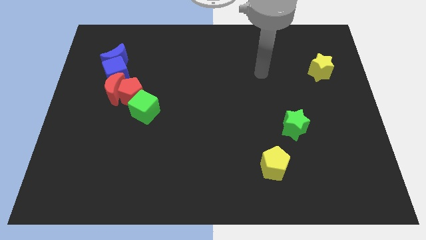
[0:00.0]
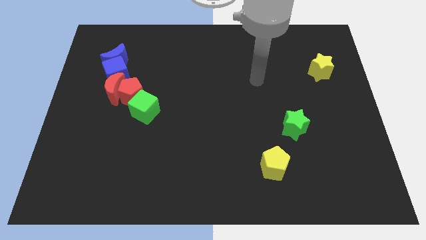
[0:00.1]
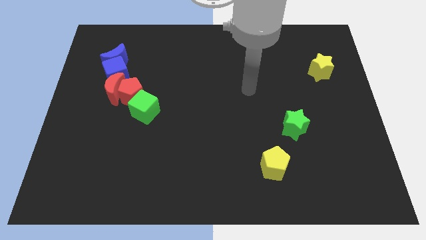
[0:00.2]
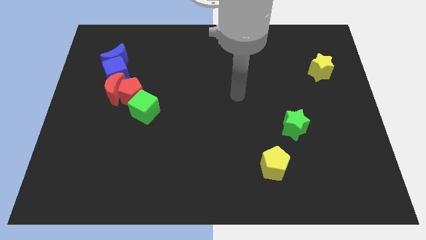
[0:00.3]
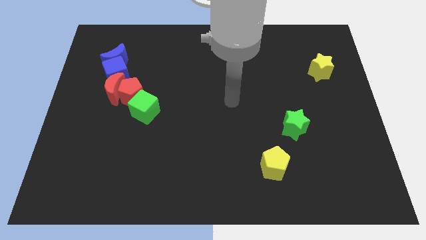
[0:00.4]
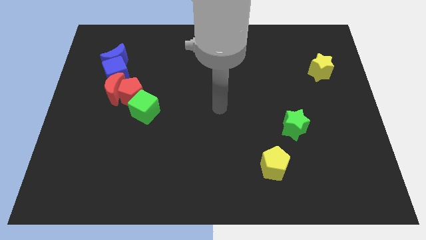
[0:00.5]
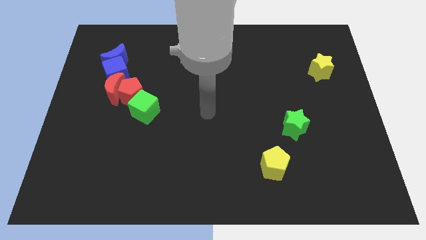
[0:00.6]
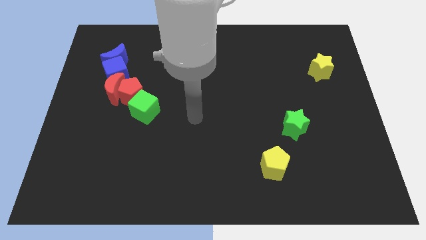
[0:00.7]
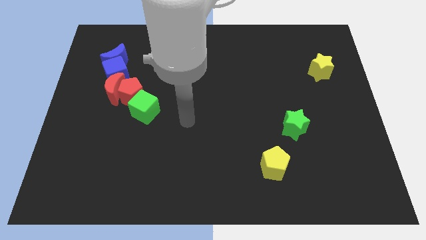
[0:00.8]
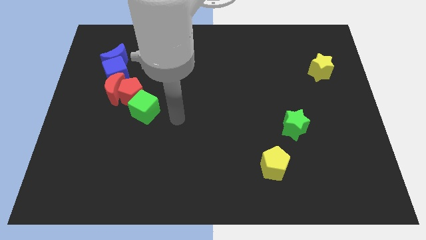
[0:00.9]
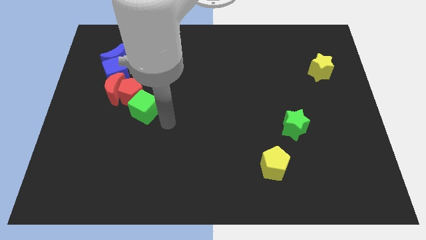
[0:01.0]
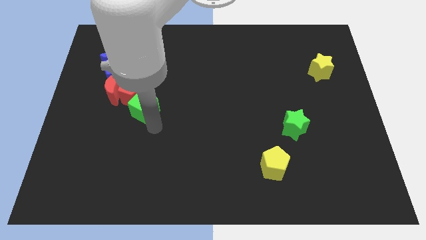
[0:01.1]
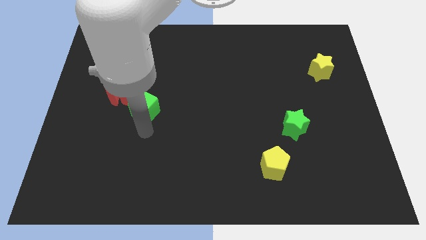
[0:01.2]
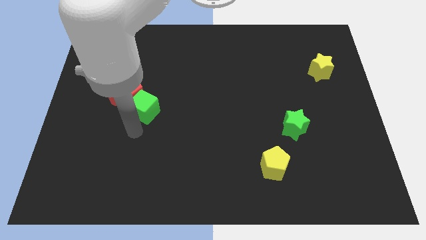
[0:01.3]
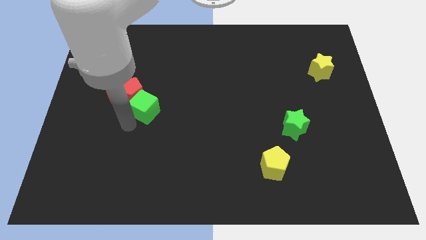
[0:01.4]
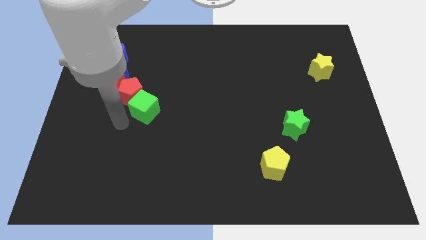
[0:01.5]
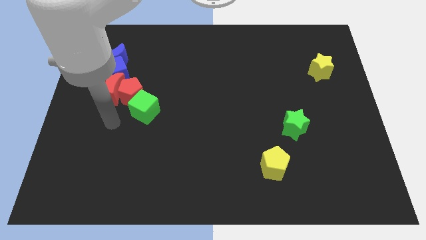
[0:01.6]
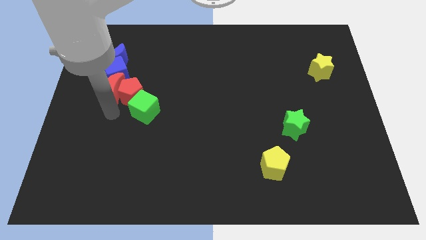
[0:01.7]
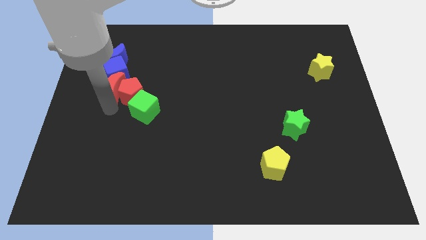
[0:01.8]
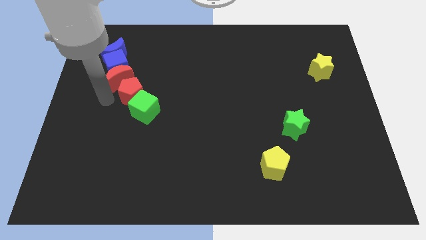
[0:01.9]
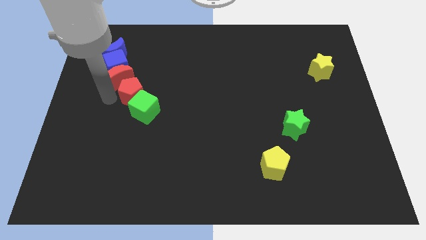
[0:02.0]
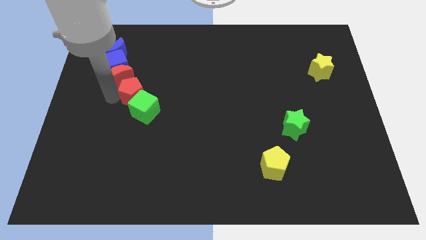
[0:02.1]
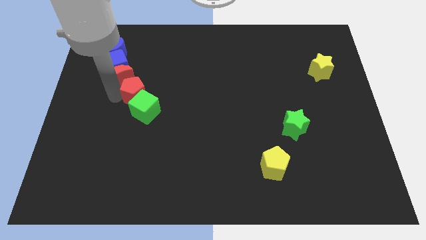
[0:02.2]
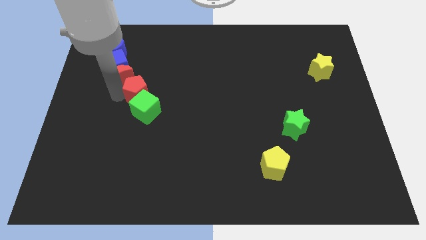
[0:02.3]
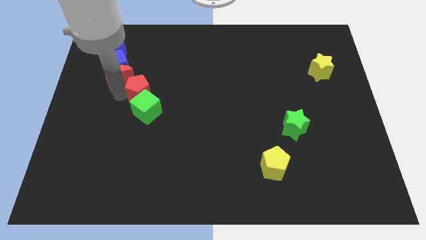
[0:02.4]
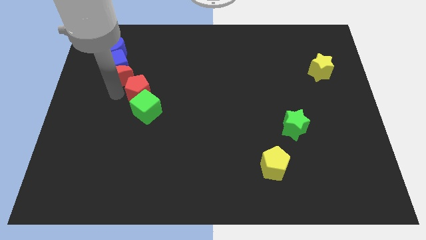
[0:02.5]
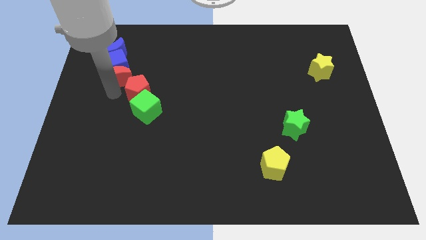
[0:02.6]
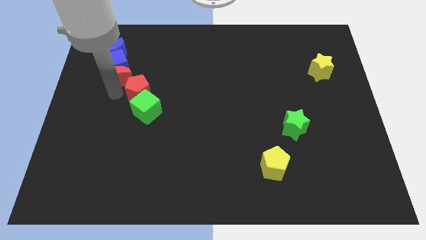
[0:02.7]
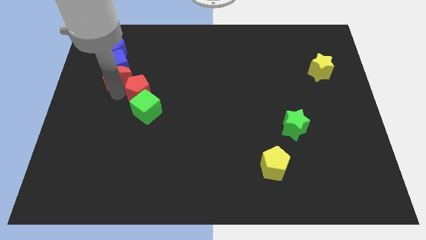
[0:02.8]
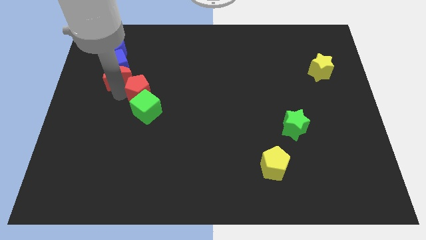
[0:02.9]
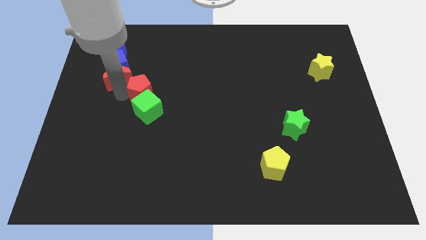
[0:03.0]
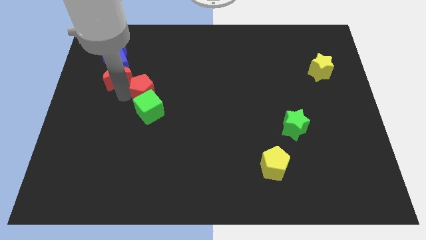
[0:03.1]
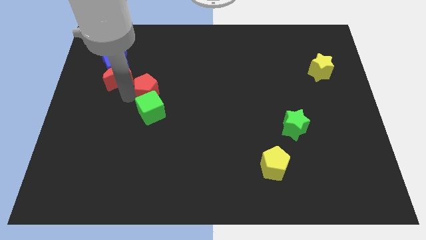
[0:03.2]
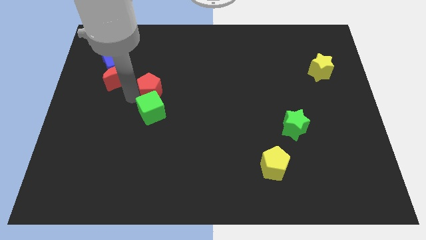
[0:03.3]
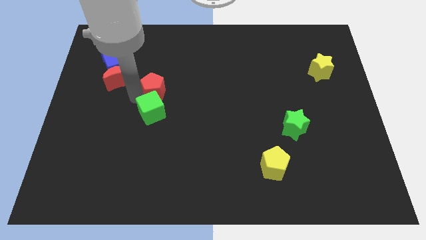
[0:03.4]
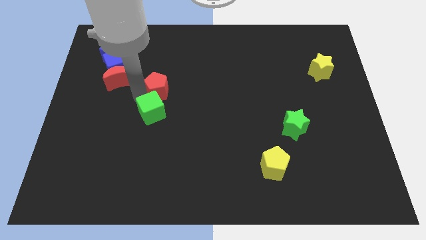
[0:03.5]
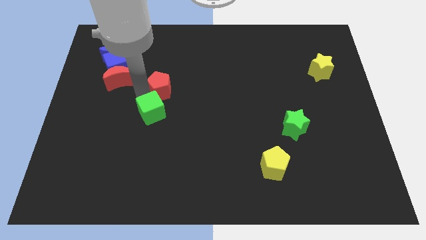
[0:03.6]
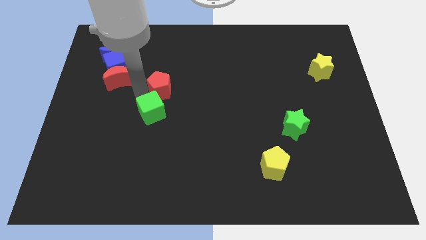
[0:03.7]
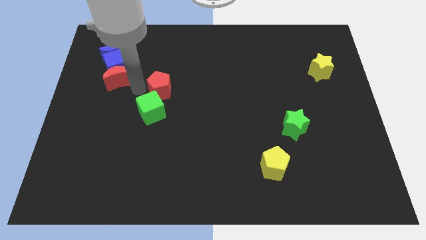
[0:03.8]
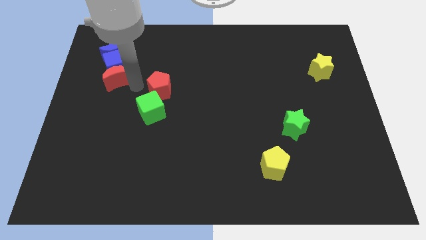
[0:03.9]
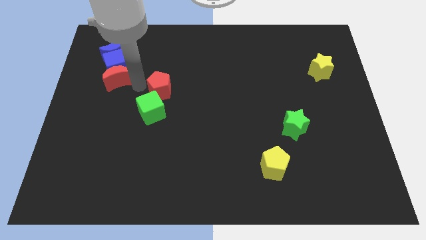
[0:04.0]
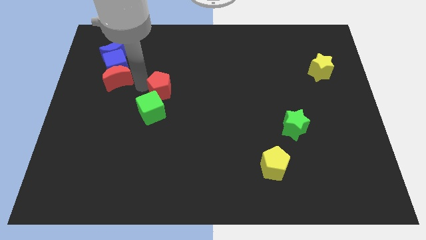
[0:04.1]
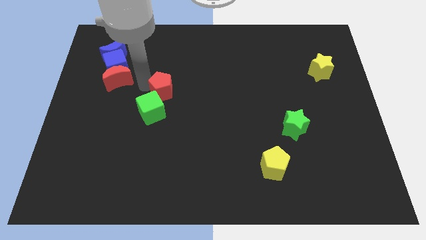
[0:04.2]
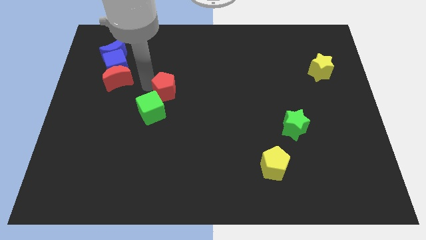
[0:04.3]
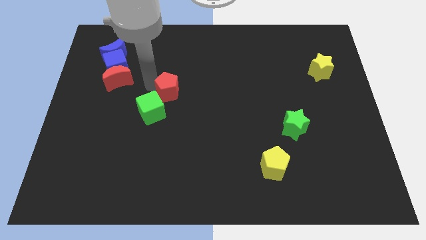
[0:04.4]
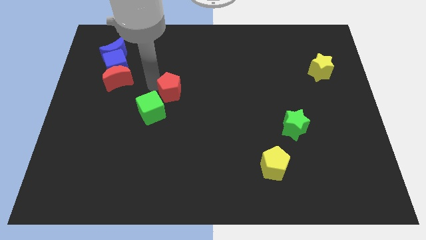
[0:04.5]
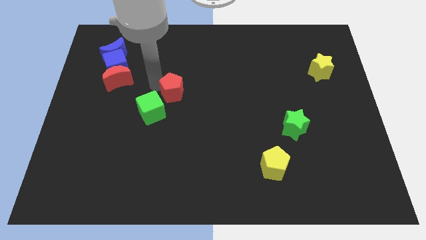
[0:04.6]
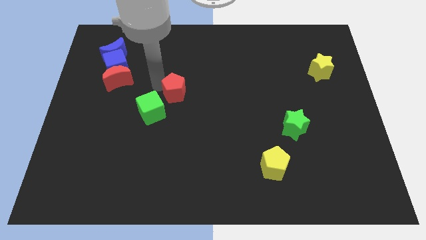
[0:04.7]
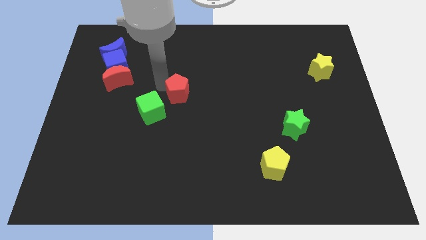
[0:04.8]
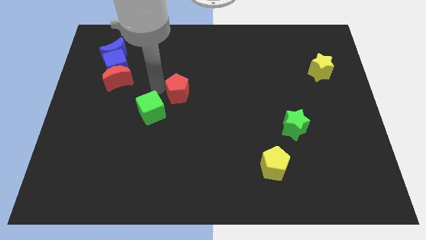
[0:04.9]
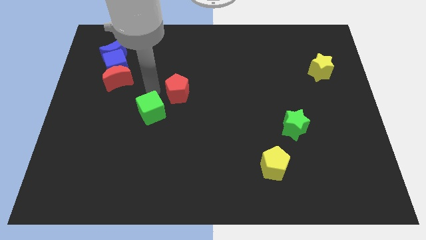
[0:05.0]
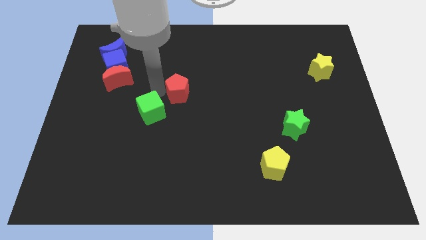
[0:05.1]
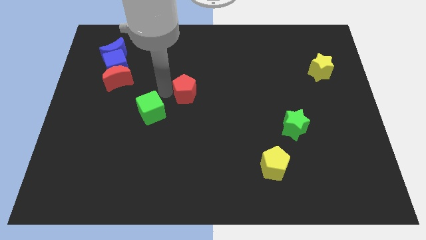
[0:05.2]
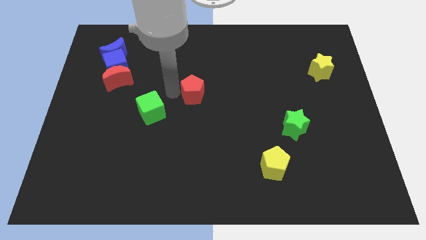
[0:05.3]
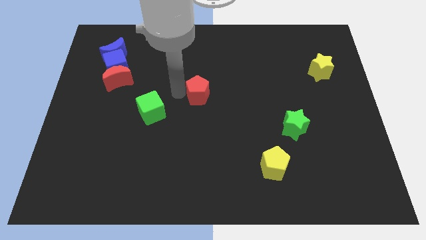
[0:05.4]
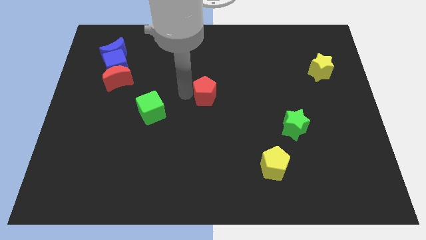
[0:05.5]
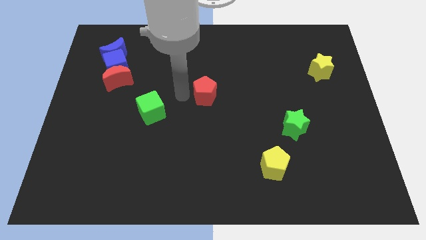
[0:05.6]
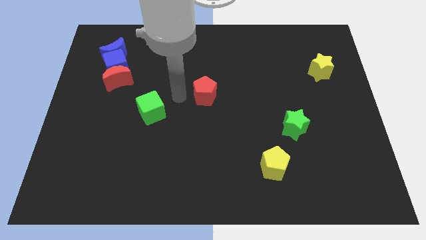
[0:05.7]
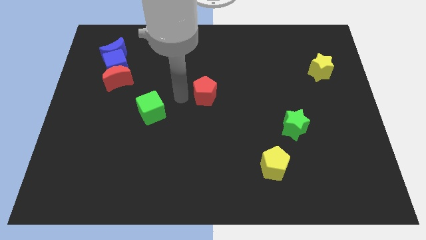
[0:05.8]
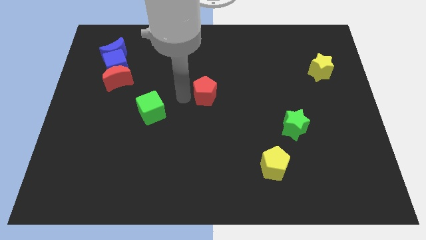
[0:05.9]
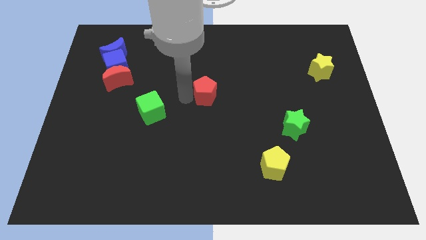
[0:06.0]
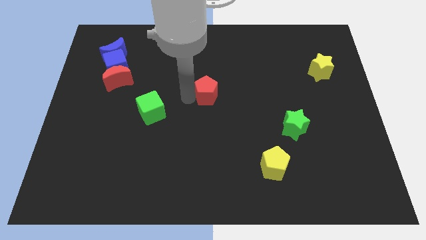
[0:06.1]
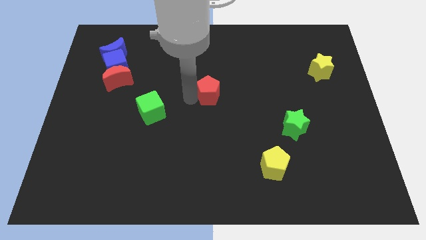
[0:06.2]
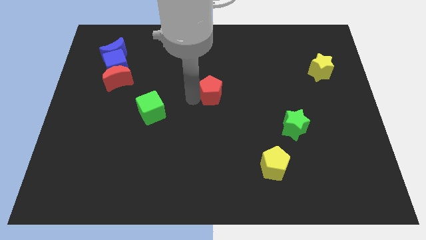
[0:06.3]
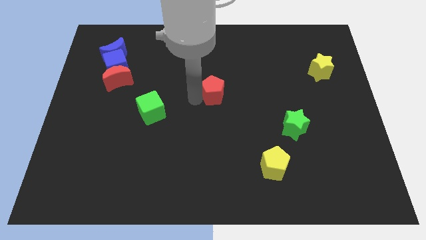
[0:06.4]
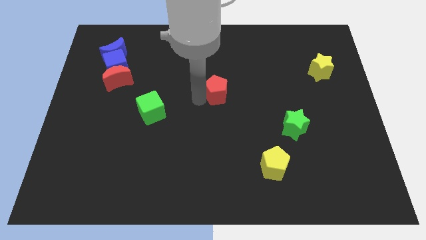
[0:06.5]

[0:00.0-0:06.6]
push the red pentagon right

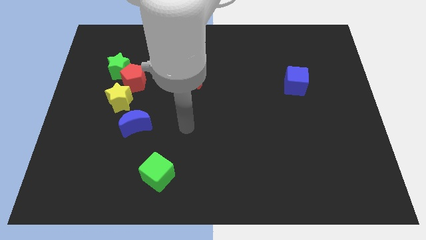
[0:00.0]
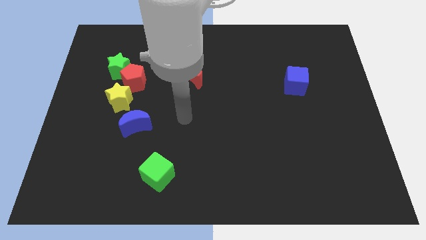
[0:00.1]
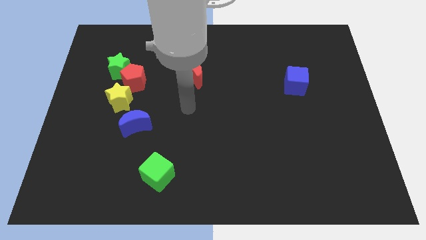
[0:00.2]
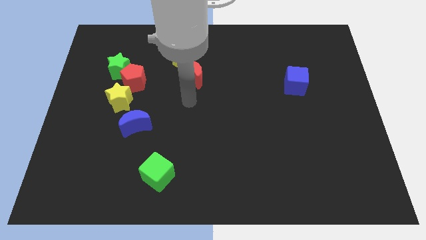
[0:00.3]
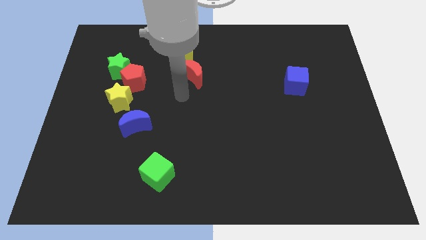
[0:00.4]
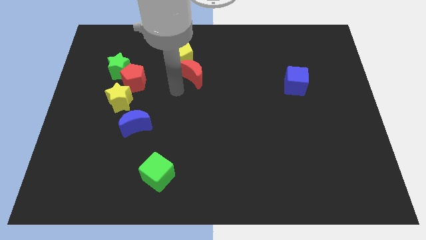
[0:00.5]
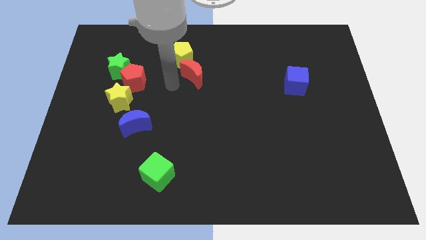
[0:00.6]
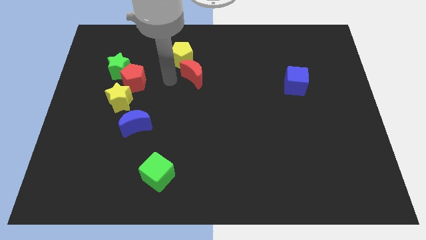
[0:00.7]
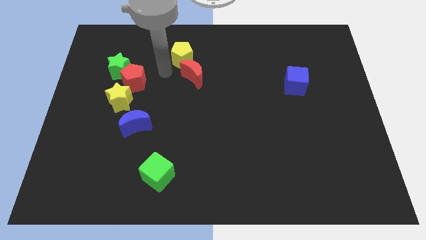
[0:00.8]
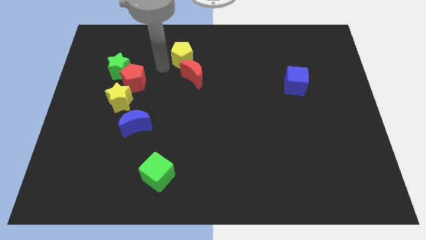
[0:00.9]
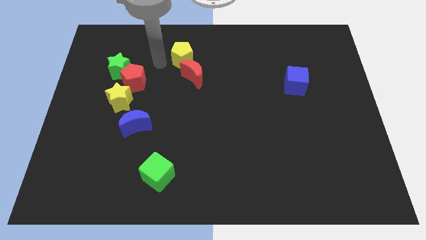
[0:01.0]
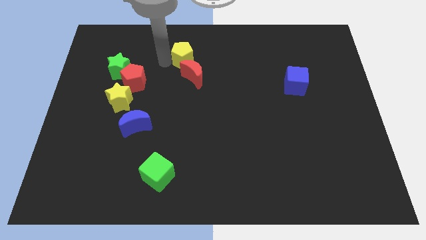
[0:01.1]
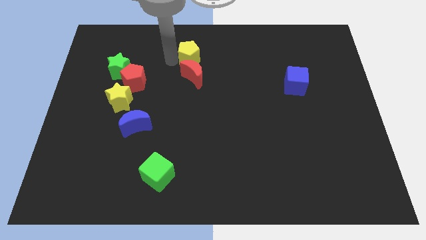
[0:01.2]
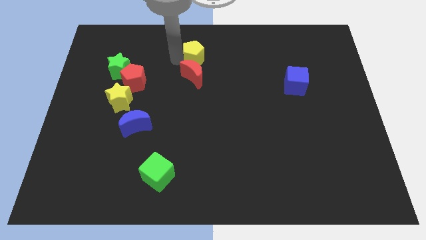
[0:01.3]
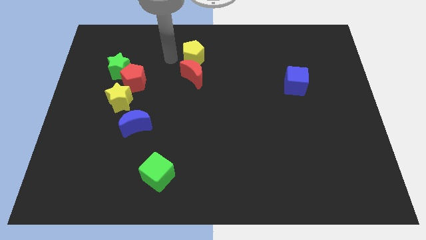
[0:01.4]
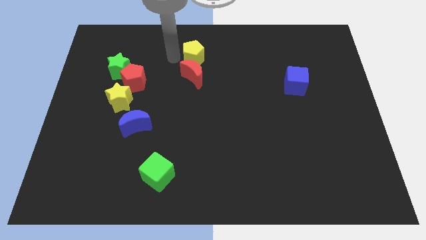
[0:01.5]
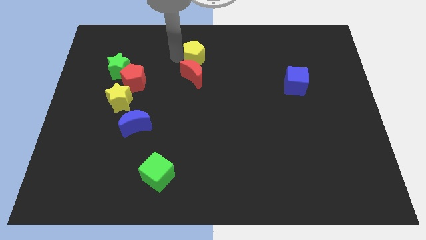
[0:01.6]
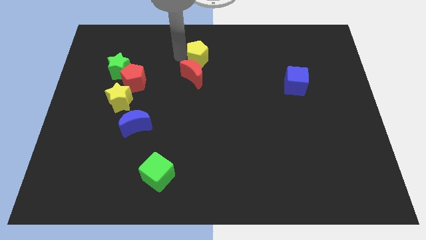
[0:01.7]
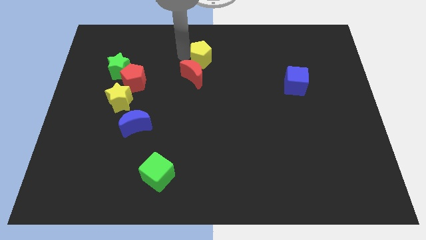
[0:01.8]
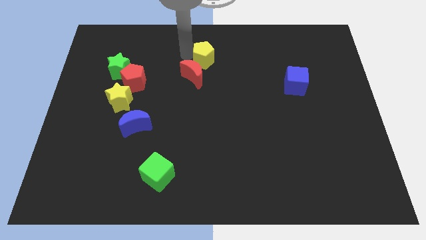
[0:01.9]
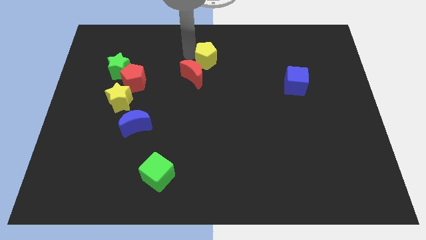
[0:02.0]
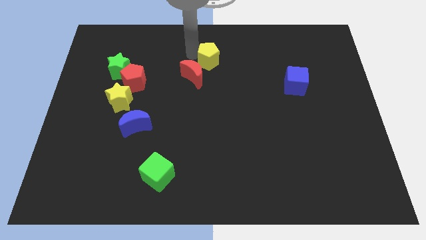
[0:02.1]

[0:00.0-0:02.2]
move the yellow pentagon to the right somewhat
